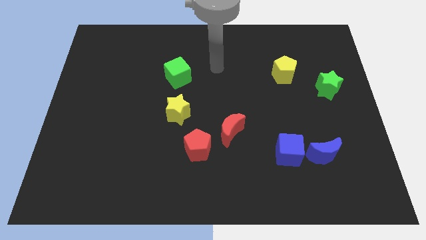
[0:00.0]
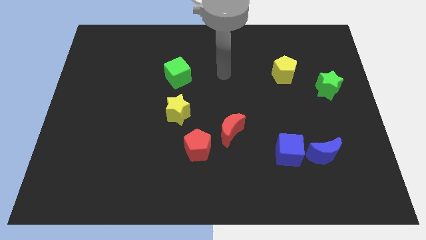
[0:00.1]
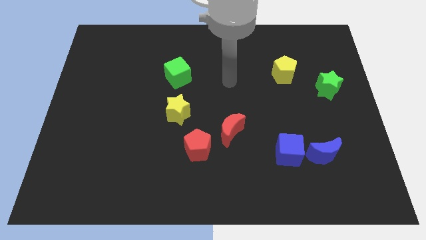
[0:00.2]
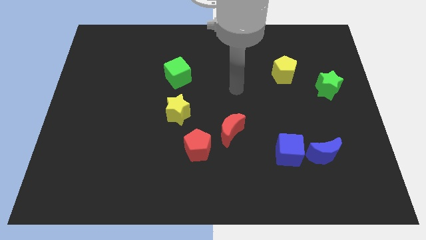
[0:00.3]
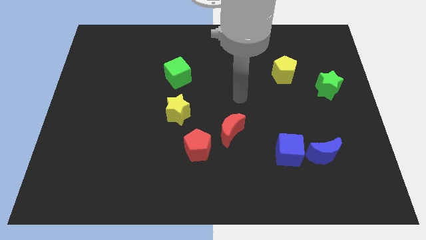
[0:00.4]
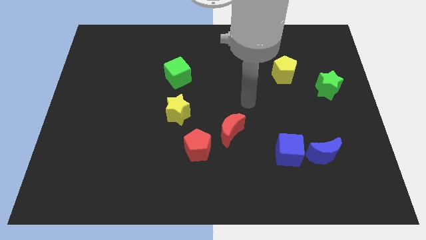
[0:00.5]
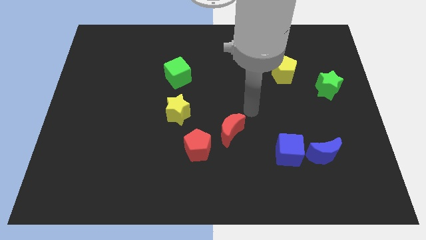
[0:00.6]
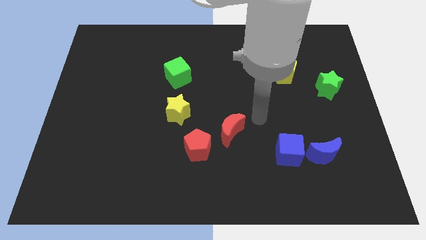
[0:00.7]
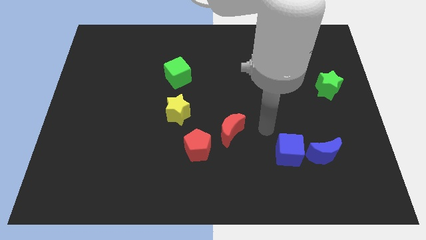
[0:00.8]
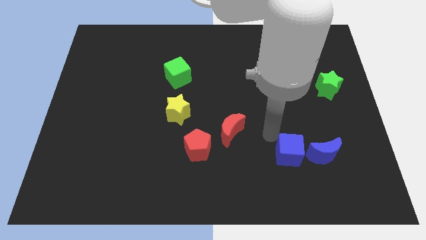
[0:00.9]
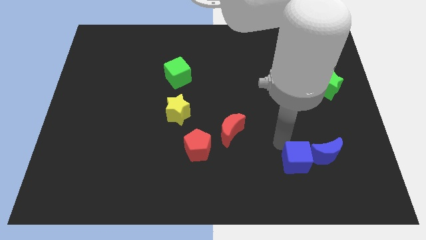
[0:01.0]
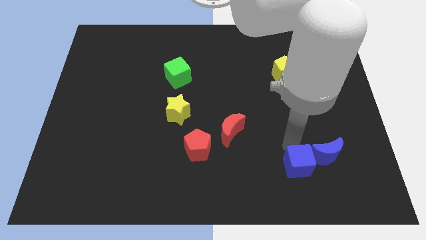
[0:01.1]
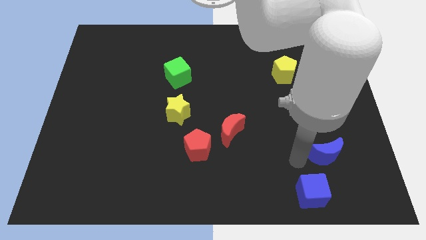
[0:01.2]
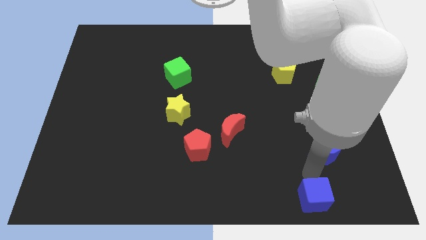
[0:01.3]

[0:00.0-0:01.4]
separate the blue moon from the blue cube

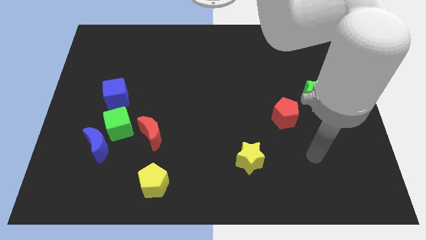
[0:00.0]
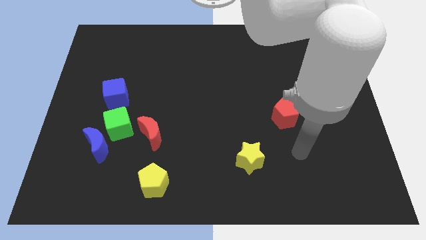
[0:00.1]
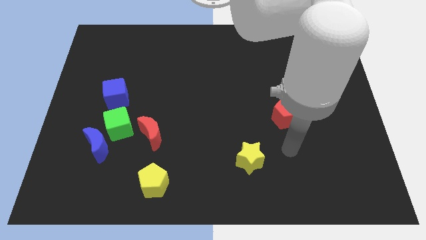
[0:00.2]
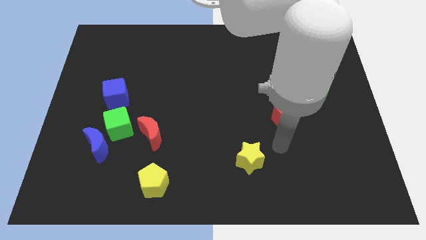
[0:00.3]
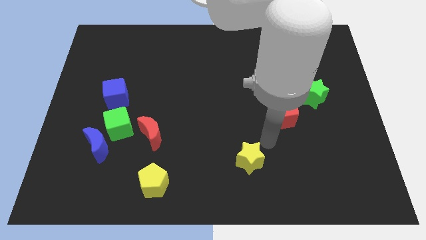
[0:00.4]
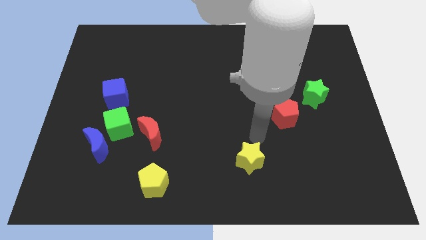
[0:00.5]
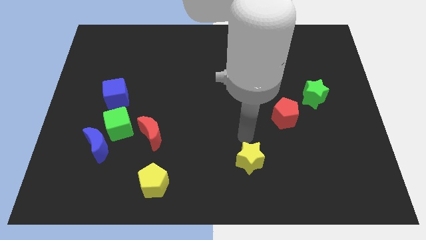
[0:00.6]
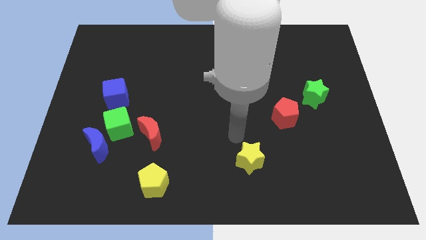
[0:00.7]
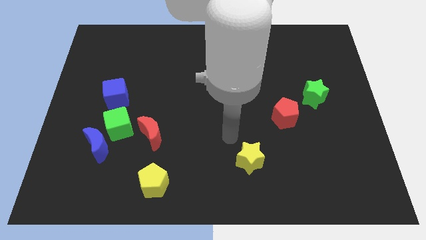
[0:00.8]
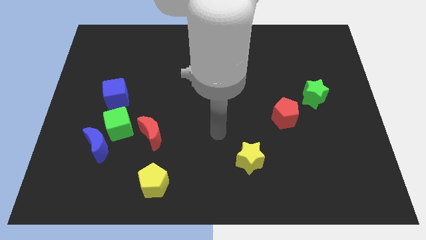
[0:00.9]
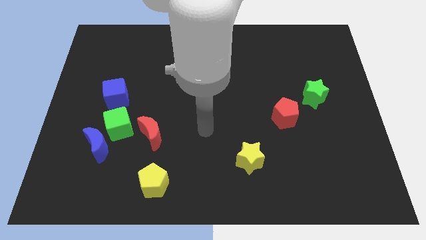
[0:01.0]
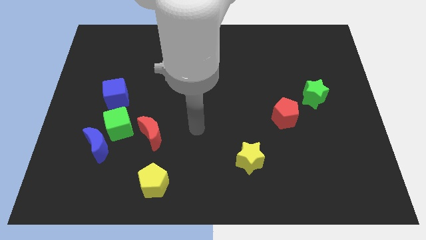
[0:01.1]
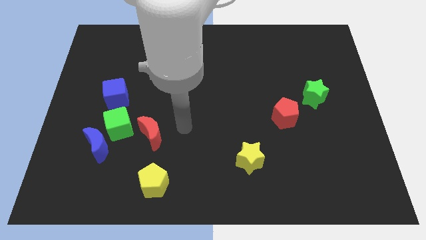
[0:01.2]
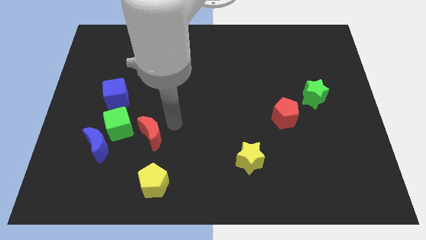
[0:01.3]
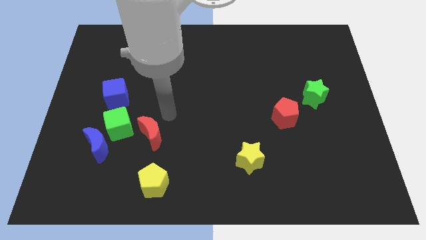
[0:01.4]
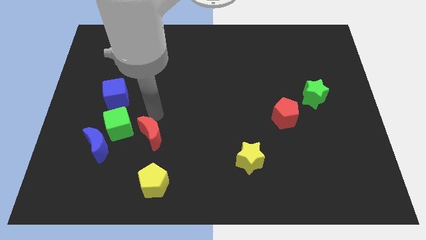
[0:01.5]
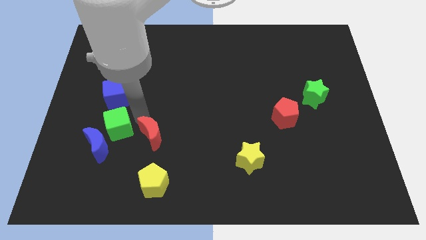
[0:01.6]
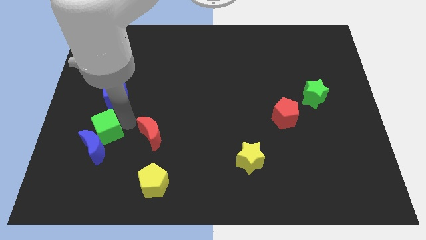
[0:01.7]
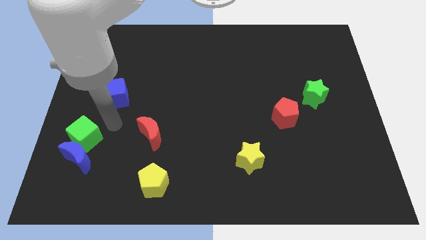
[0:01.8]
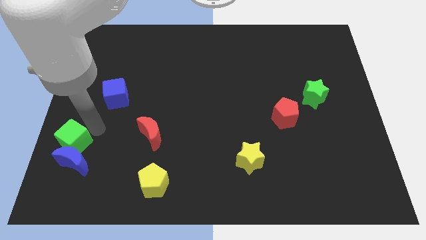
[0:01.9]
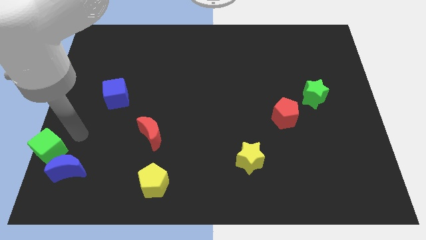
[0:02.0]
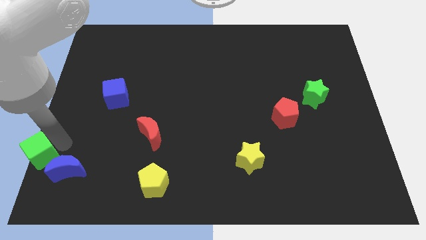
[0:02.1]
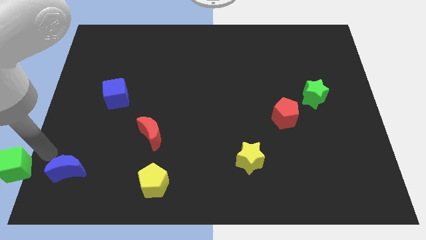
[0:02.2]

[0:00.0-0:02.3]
move the blue moon away from the green cube

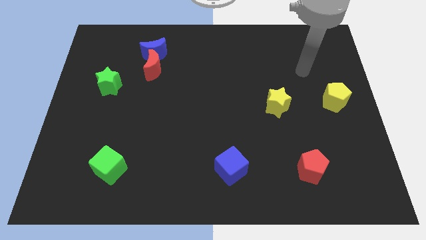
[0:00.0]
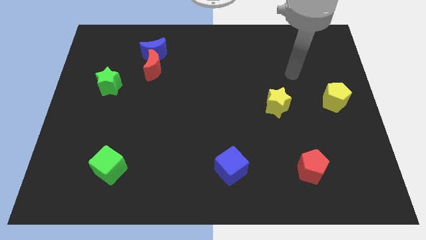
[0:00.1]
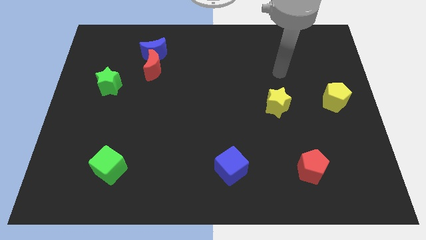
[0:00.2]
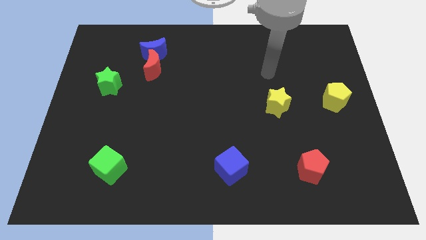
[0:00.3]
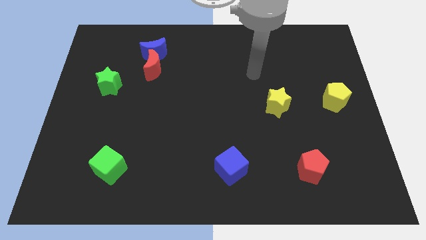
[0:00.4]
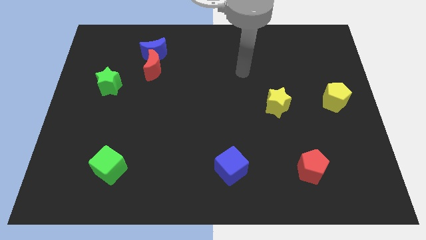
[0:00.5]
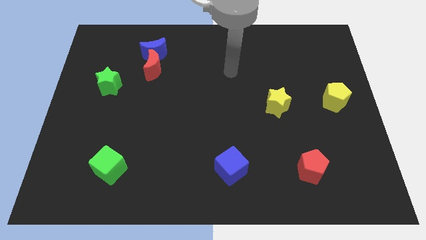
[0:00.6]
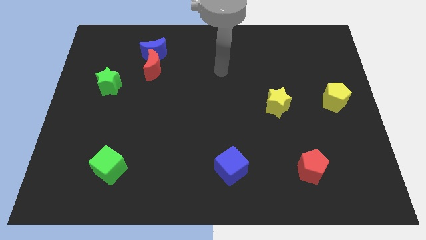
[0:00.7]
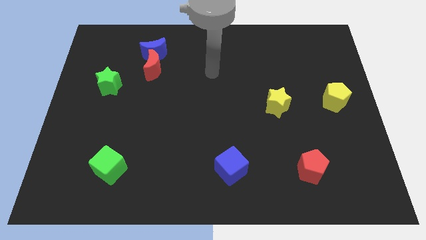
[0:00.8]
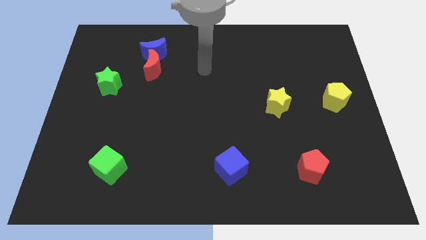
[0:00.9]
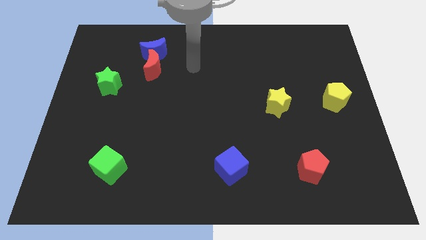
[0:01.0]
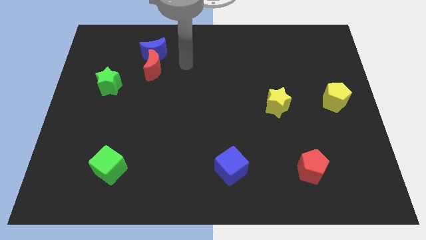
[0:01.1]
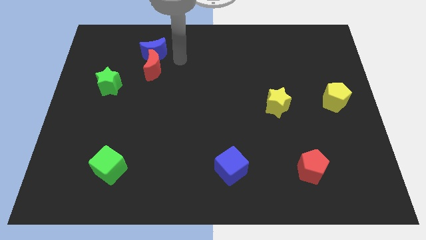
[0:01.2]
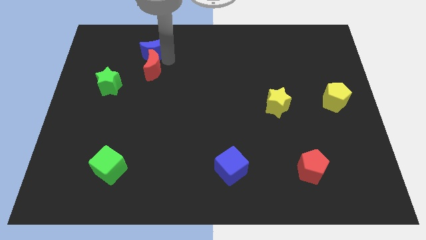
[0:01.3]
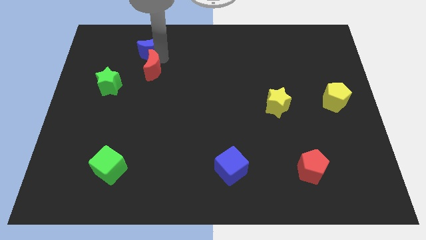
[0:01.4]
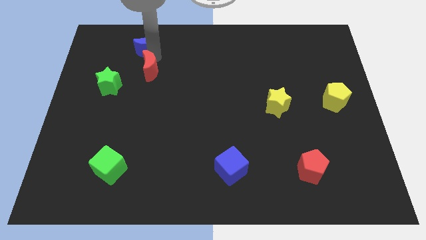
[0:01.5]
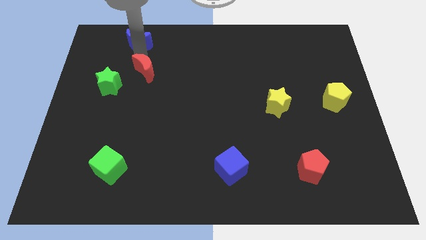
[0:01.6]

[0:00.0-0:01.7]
pull the red moon apart from the blue moon

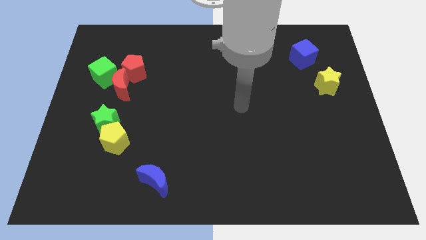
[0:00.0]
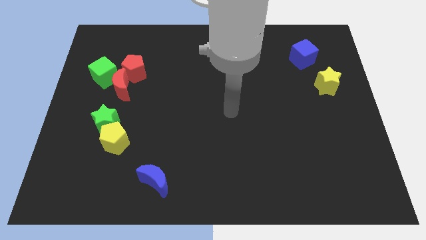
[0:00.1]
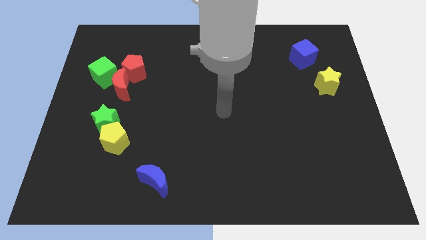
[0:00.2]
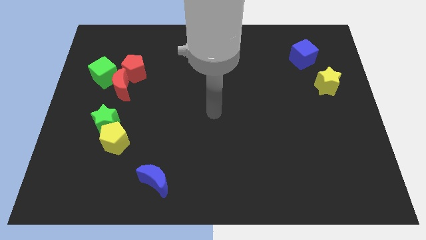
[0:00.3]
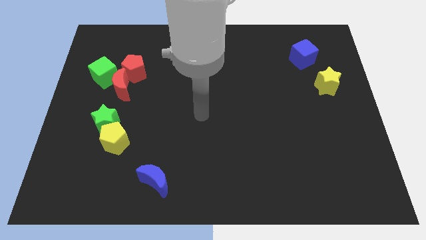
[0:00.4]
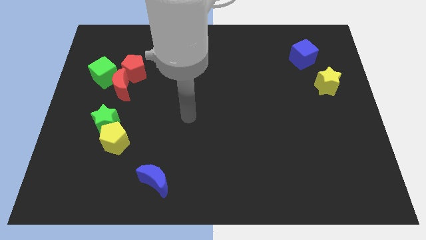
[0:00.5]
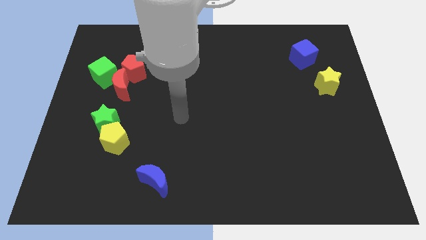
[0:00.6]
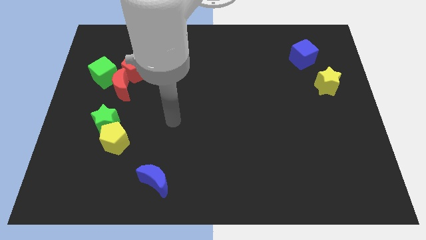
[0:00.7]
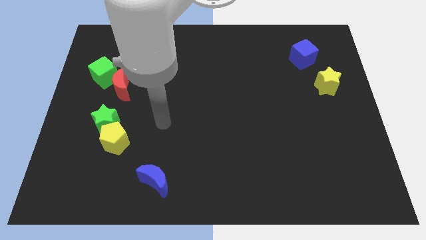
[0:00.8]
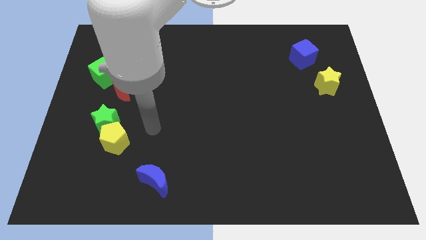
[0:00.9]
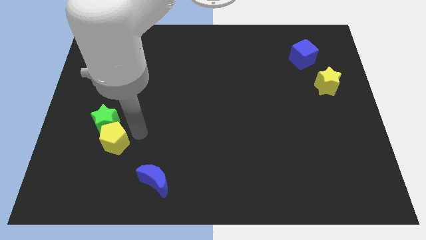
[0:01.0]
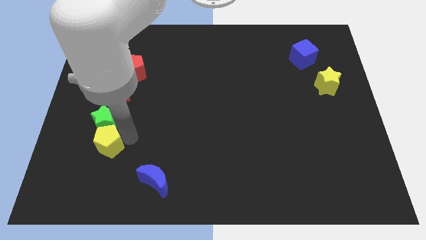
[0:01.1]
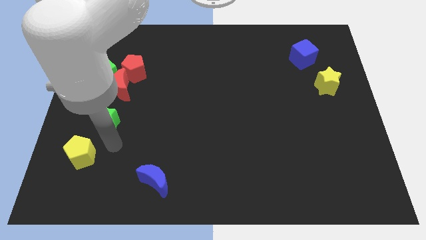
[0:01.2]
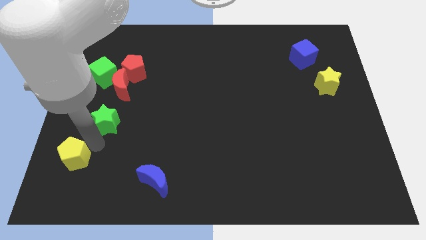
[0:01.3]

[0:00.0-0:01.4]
pull the green star apart from the yellow pentagon

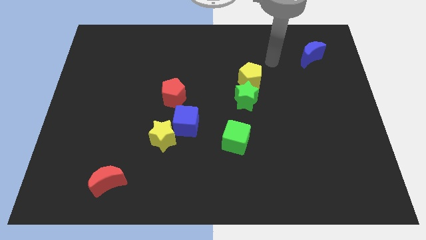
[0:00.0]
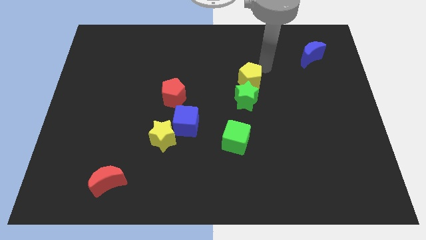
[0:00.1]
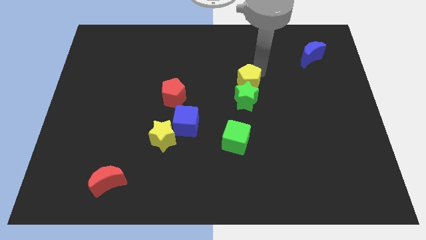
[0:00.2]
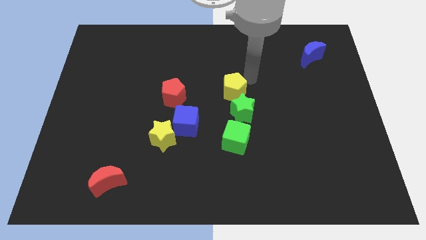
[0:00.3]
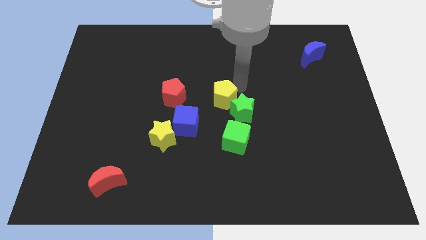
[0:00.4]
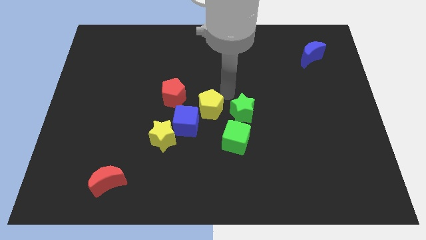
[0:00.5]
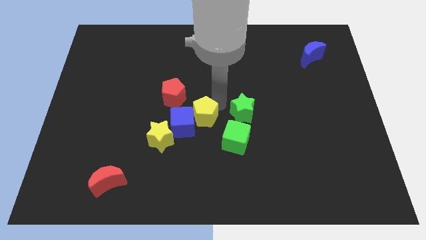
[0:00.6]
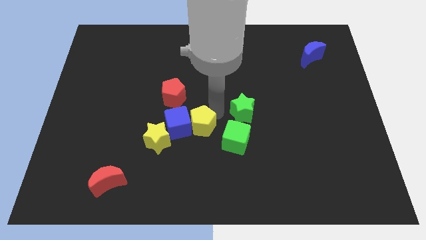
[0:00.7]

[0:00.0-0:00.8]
move the green star away from the yellow pentagon

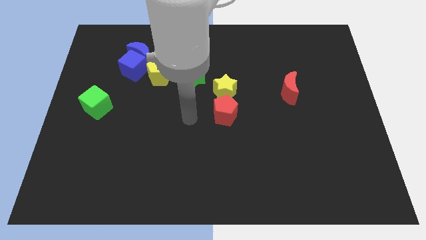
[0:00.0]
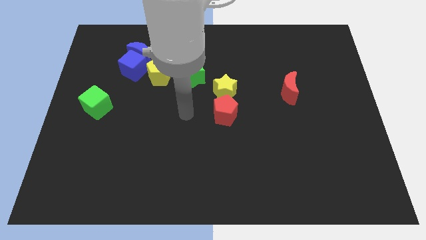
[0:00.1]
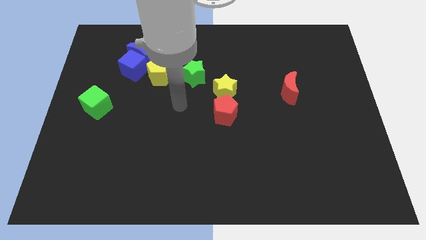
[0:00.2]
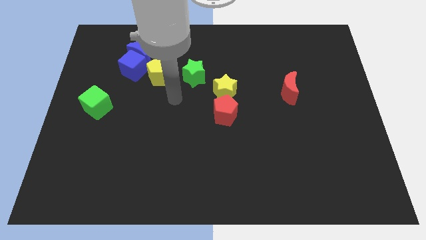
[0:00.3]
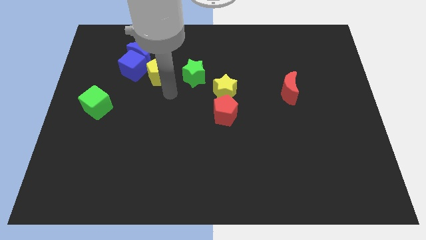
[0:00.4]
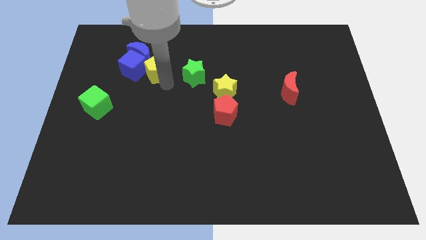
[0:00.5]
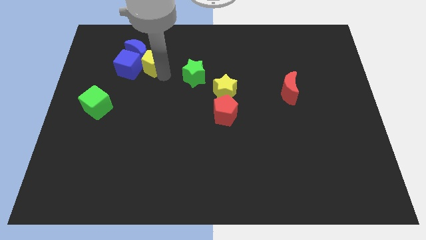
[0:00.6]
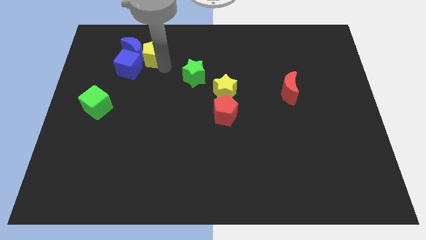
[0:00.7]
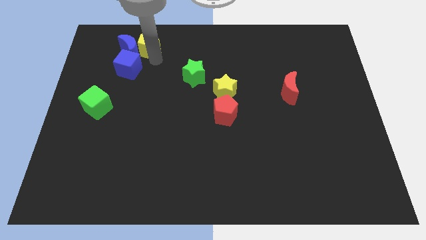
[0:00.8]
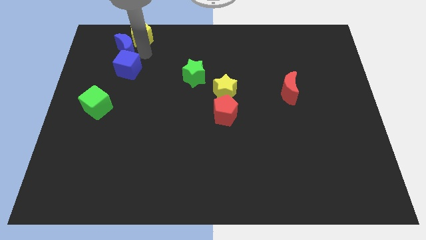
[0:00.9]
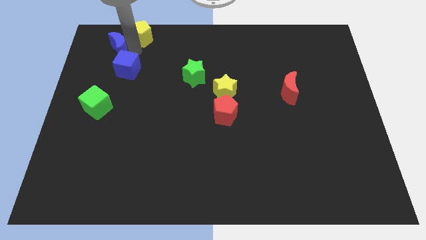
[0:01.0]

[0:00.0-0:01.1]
move the blue cube away from the blue moon and yellow pentagon

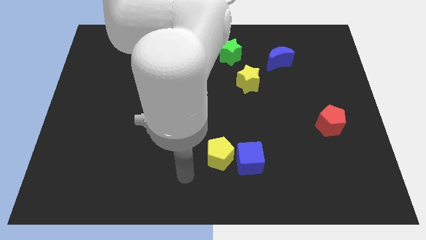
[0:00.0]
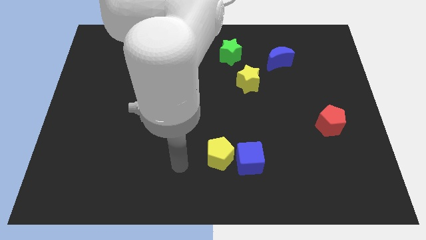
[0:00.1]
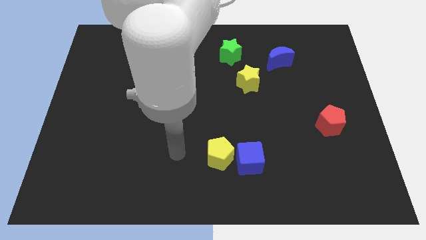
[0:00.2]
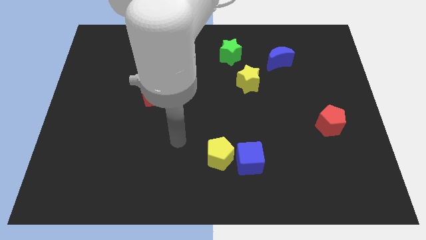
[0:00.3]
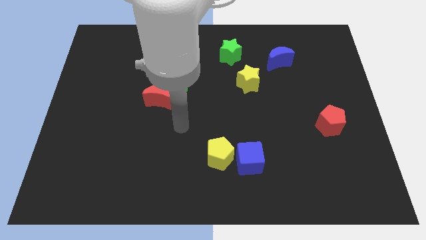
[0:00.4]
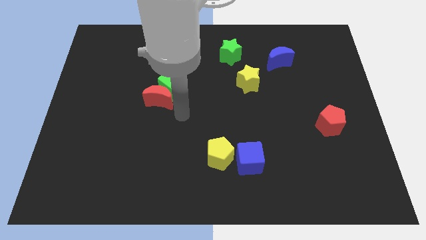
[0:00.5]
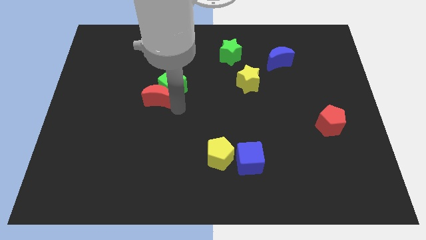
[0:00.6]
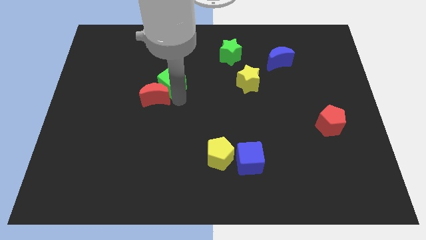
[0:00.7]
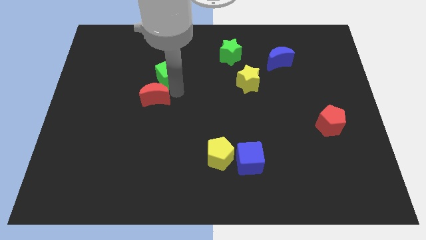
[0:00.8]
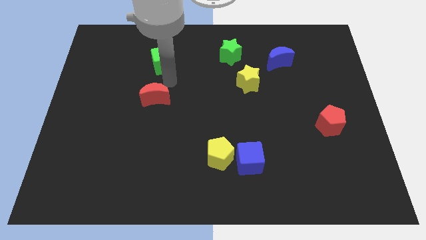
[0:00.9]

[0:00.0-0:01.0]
move the red moon away from the green cube
